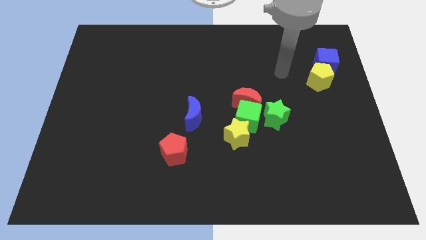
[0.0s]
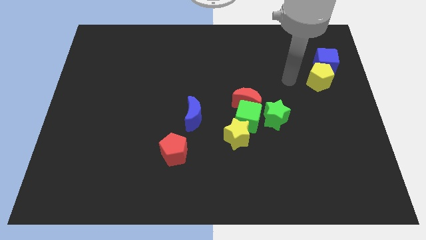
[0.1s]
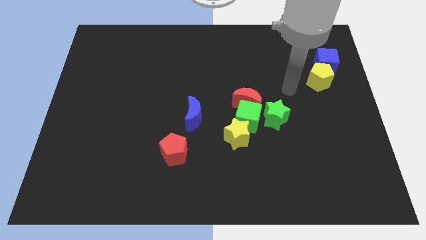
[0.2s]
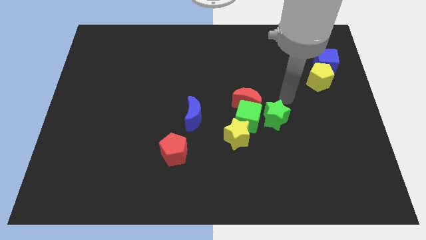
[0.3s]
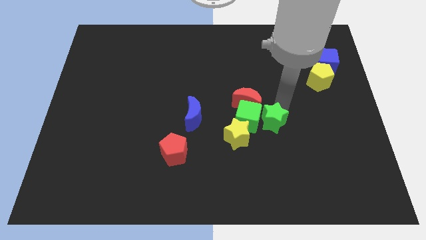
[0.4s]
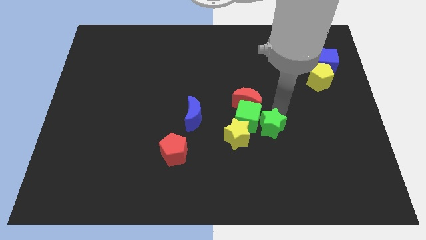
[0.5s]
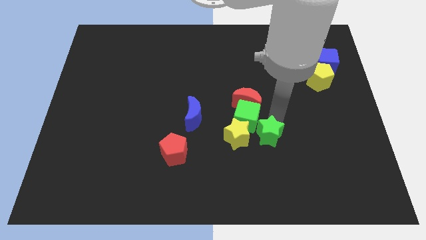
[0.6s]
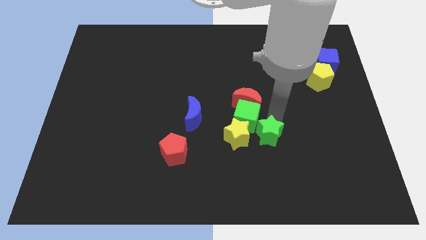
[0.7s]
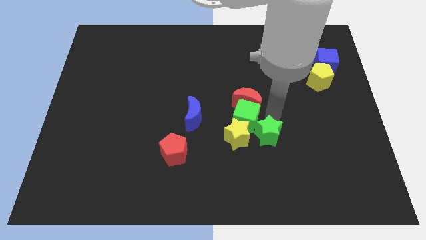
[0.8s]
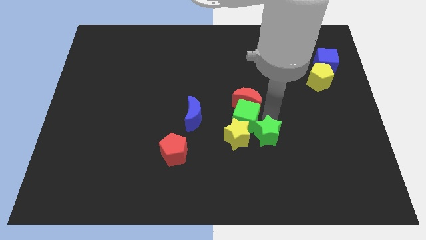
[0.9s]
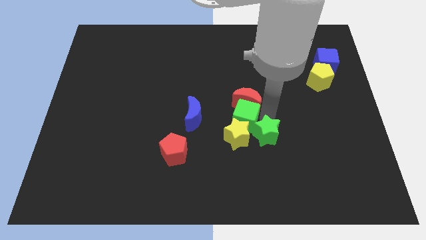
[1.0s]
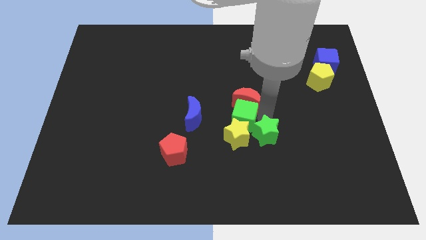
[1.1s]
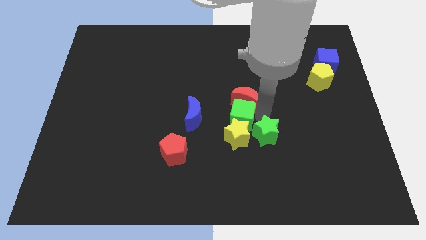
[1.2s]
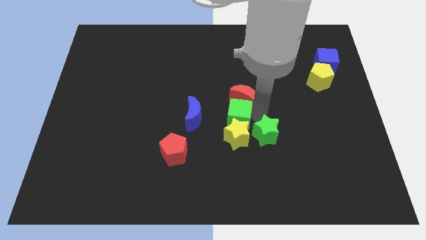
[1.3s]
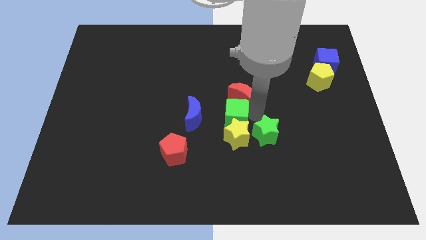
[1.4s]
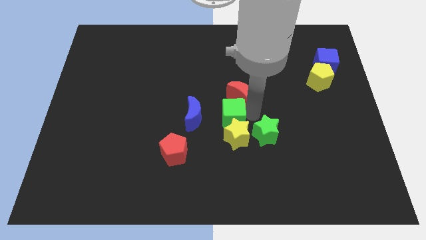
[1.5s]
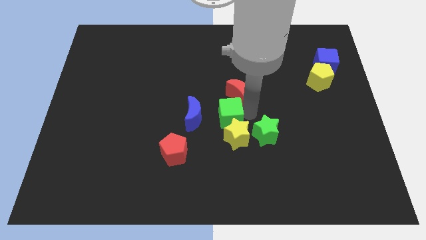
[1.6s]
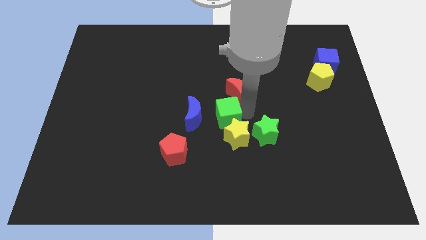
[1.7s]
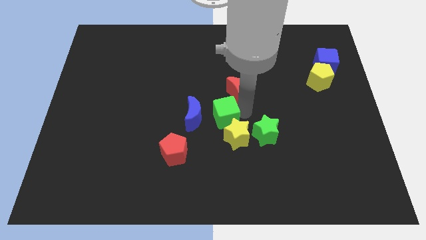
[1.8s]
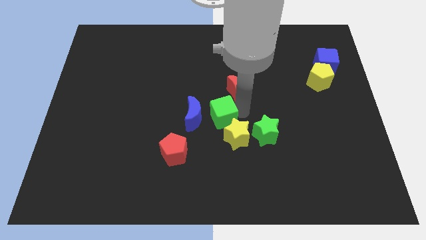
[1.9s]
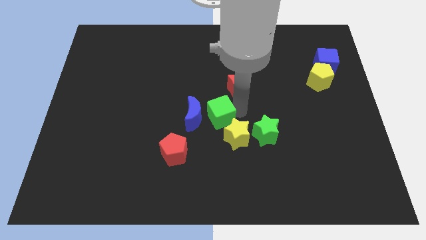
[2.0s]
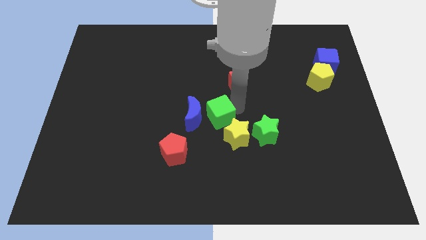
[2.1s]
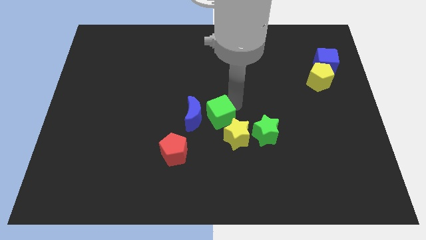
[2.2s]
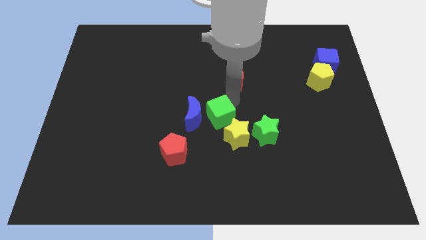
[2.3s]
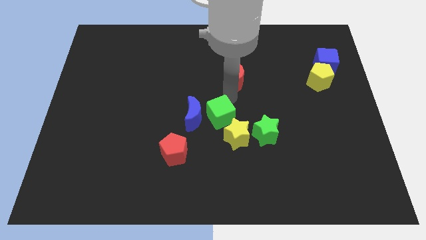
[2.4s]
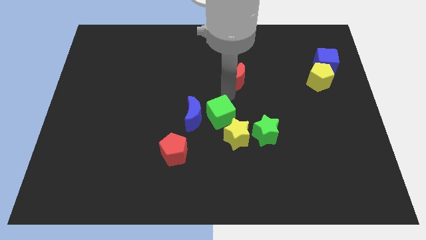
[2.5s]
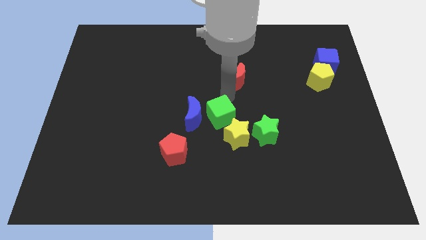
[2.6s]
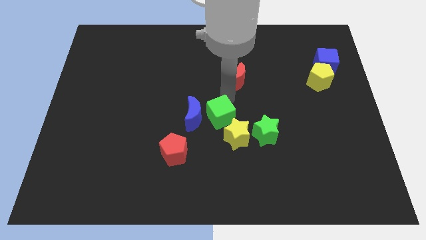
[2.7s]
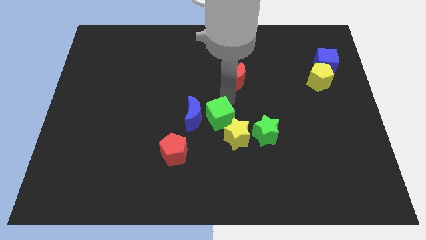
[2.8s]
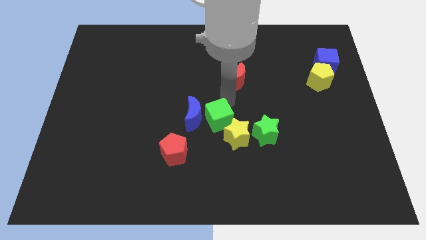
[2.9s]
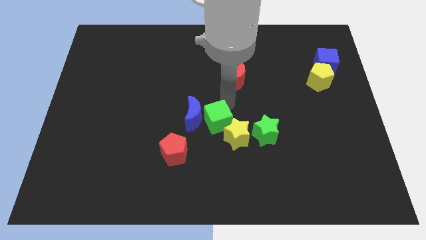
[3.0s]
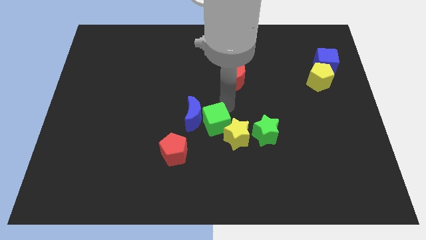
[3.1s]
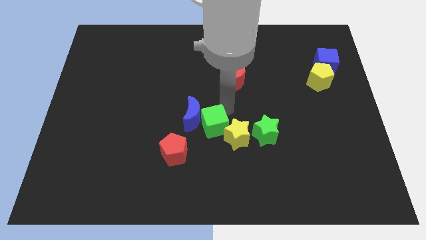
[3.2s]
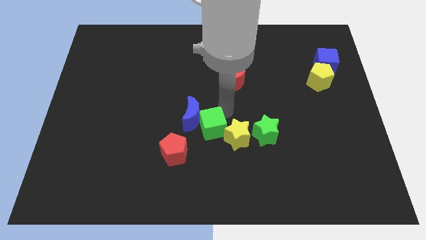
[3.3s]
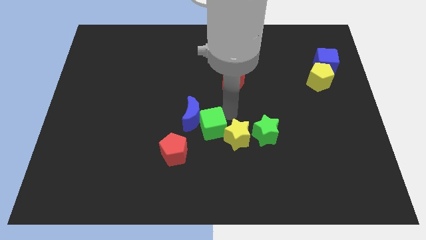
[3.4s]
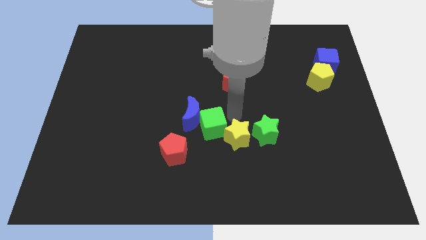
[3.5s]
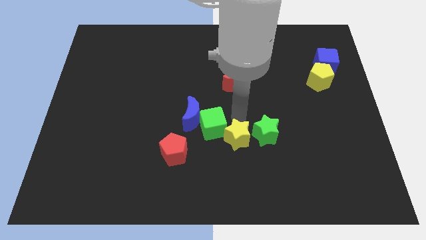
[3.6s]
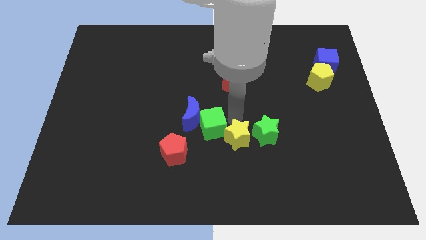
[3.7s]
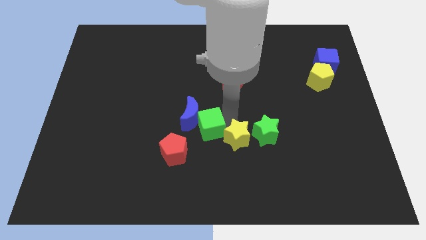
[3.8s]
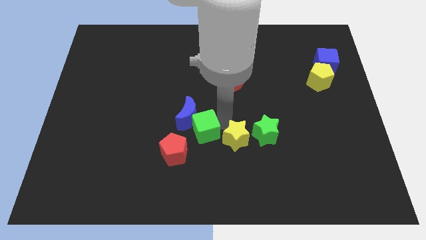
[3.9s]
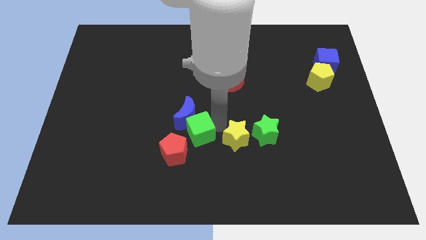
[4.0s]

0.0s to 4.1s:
separate the green cube from the group

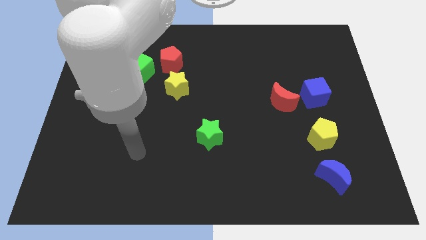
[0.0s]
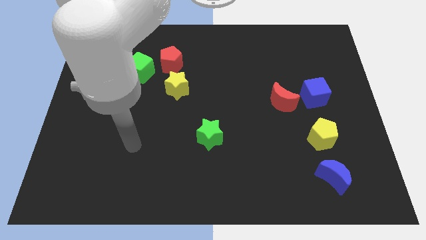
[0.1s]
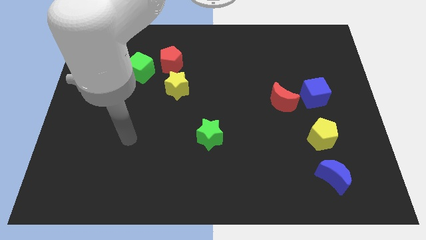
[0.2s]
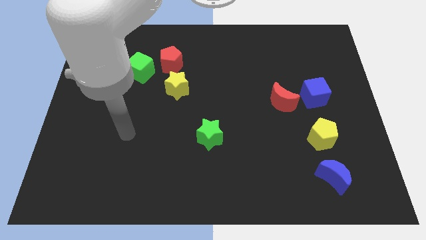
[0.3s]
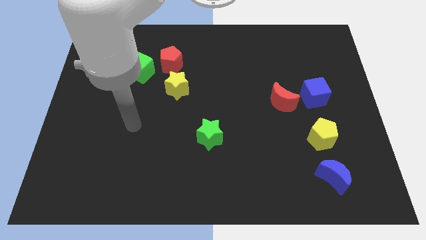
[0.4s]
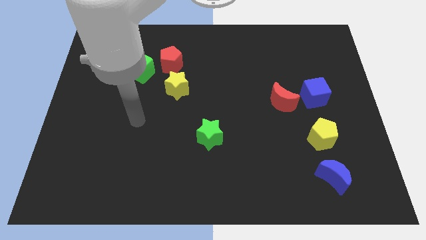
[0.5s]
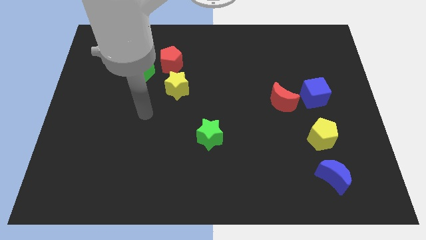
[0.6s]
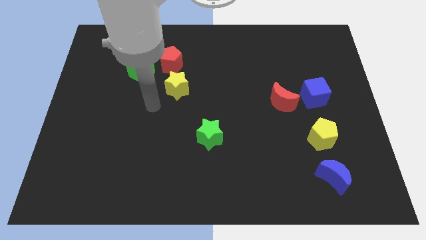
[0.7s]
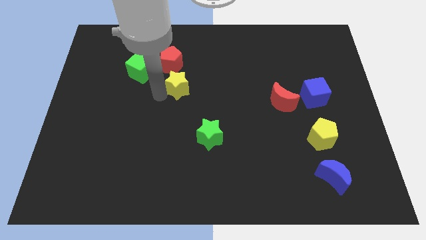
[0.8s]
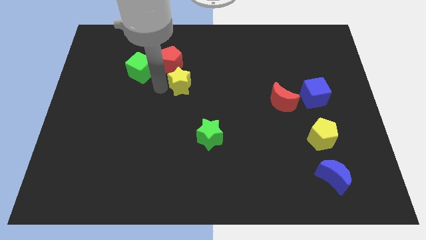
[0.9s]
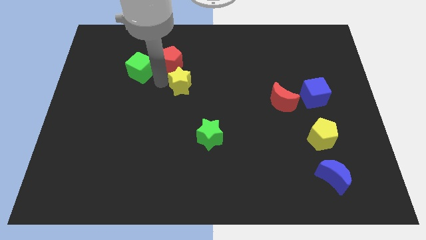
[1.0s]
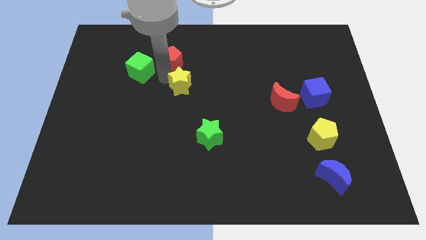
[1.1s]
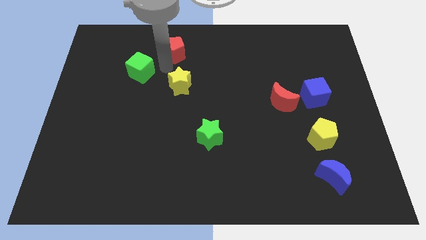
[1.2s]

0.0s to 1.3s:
pull the green cube apart from the red pentagon

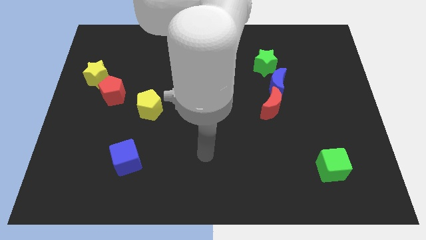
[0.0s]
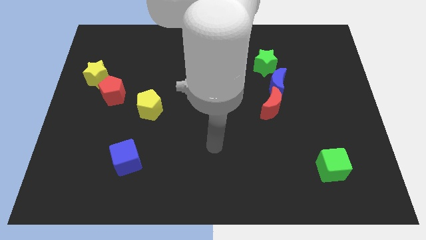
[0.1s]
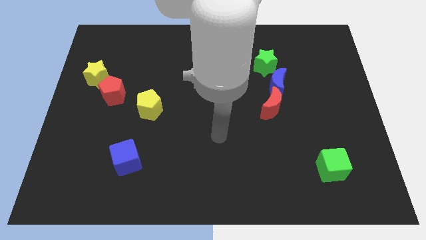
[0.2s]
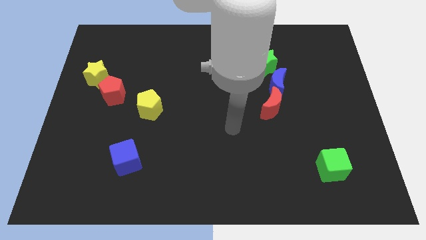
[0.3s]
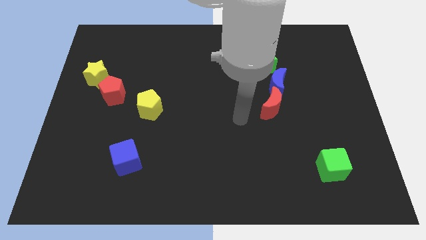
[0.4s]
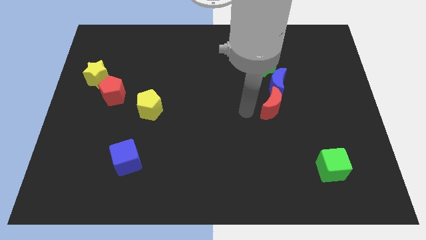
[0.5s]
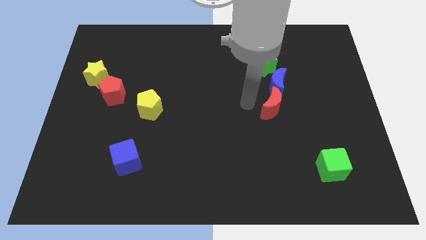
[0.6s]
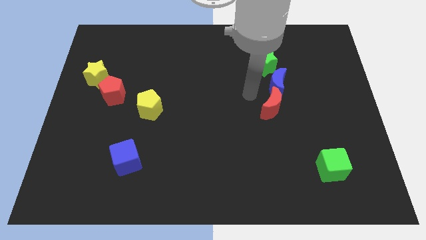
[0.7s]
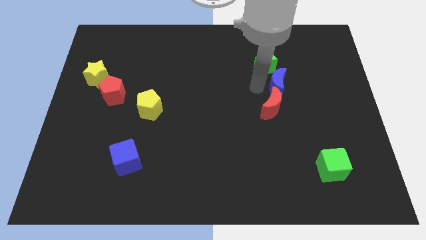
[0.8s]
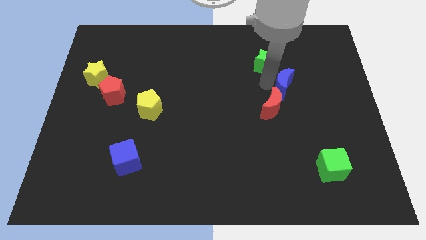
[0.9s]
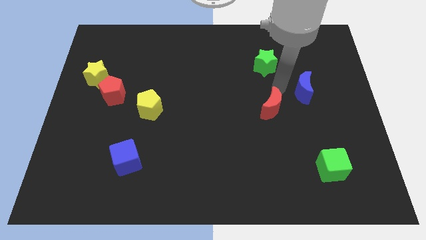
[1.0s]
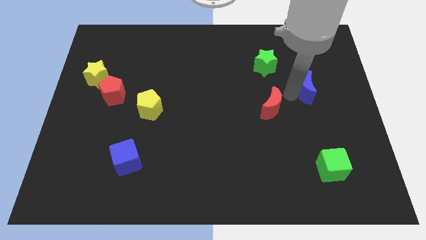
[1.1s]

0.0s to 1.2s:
pull the red moon apart from the blue moon

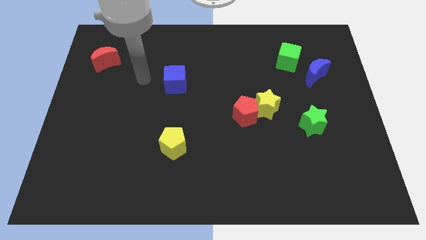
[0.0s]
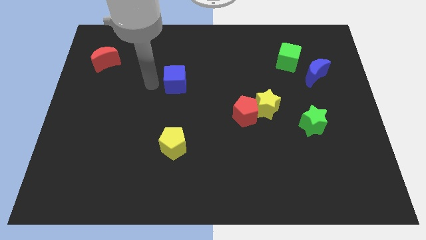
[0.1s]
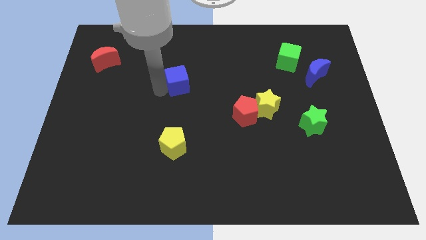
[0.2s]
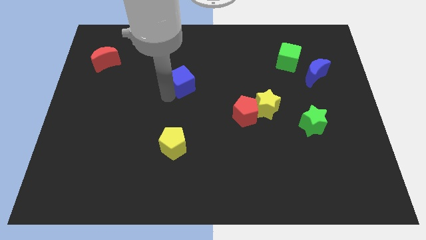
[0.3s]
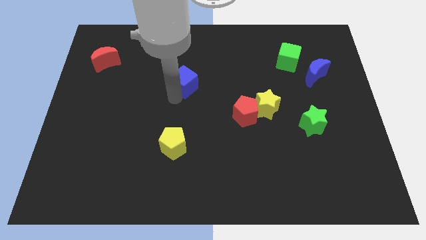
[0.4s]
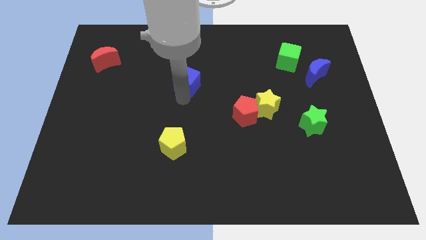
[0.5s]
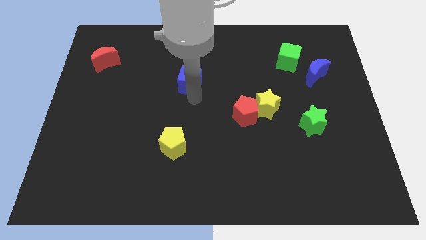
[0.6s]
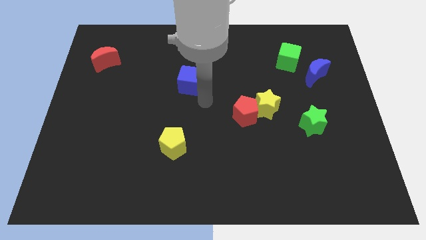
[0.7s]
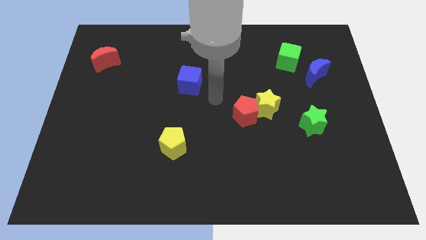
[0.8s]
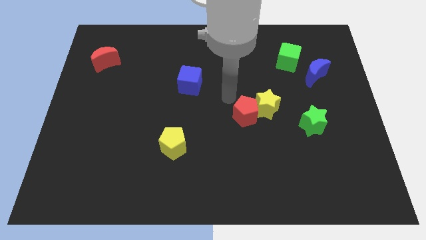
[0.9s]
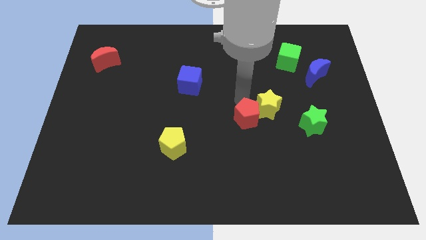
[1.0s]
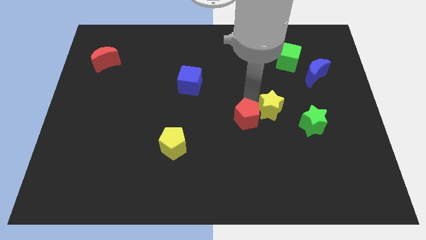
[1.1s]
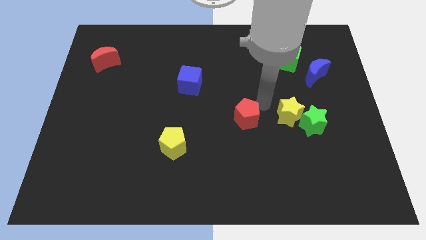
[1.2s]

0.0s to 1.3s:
pull the red pentagon apart from the yellow star

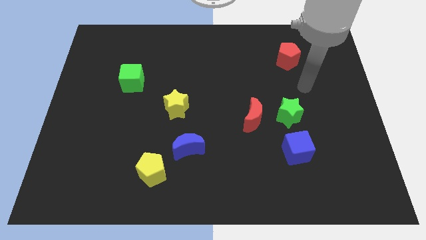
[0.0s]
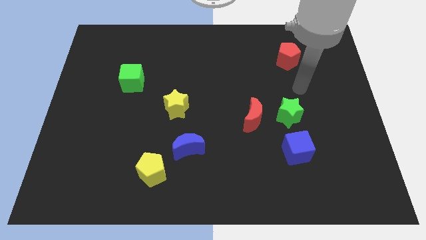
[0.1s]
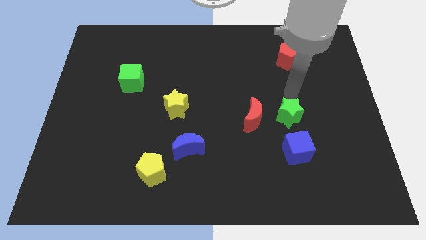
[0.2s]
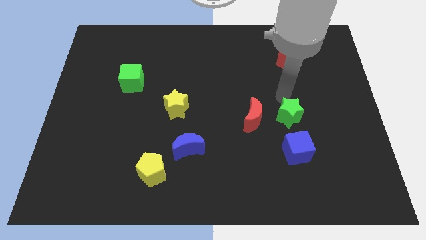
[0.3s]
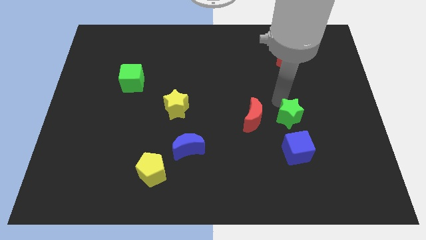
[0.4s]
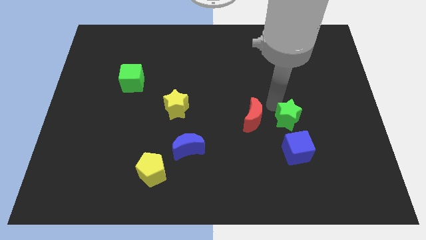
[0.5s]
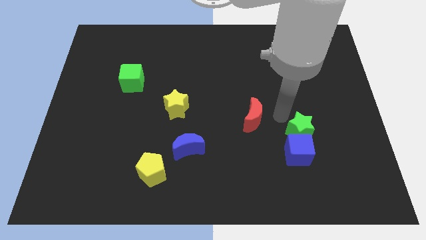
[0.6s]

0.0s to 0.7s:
move the red moon away from the green star

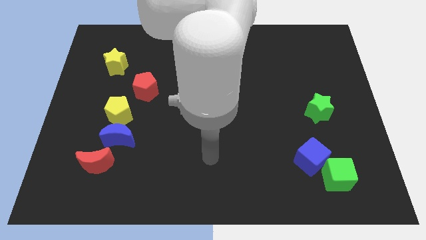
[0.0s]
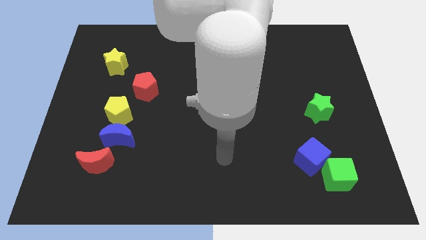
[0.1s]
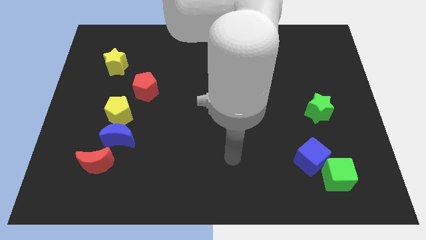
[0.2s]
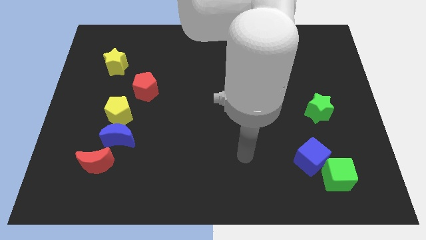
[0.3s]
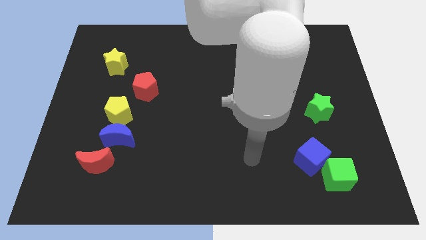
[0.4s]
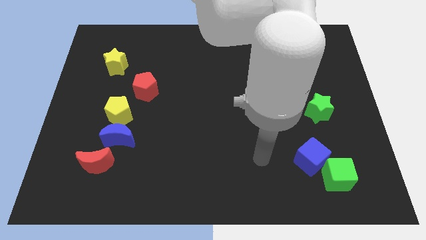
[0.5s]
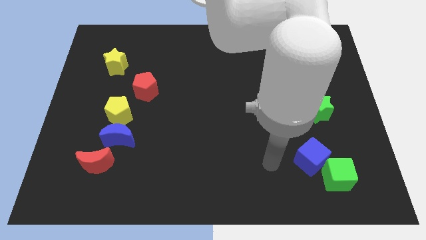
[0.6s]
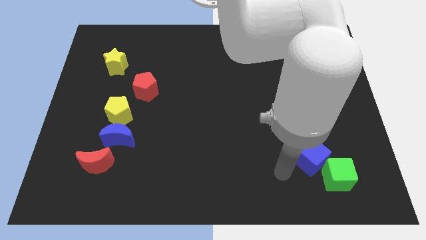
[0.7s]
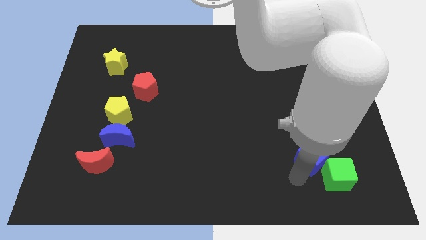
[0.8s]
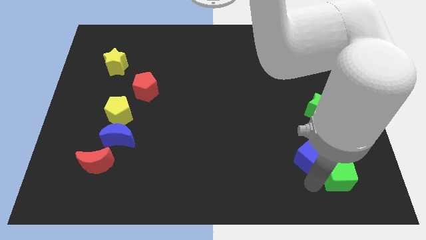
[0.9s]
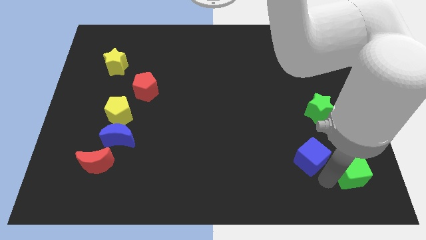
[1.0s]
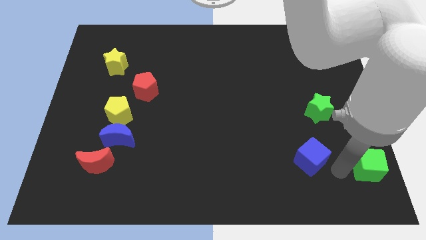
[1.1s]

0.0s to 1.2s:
separate the blue cube from the green cube
